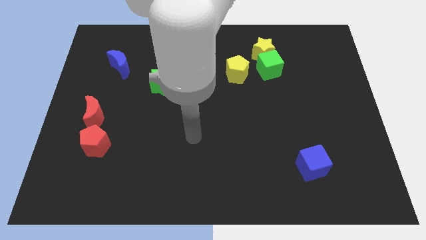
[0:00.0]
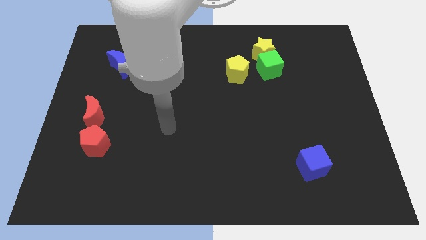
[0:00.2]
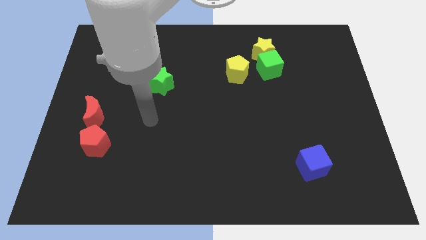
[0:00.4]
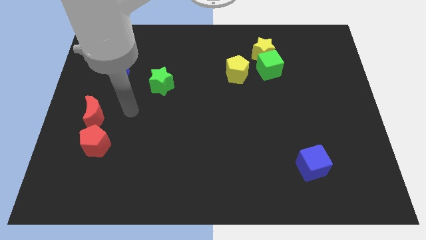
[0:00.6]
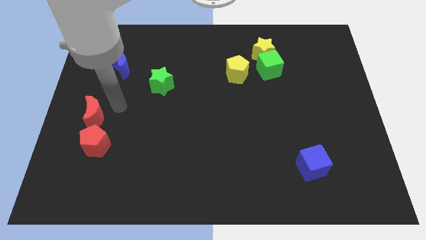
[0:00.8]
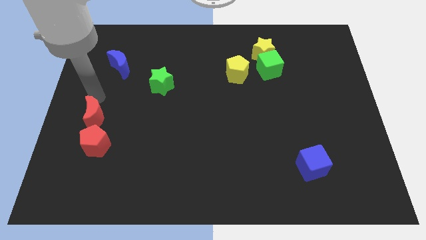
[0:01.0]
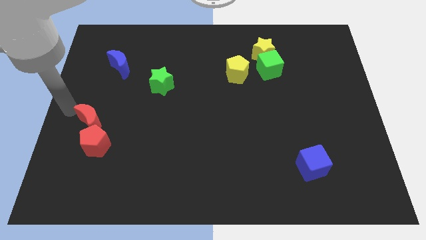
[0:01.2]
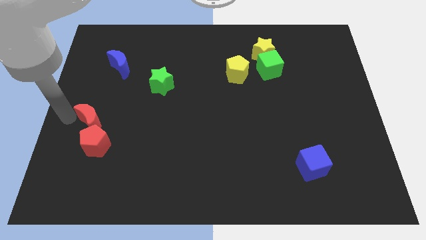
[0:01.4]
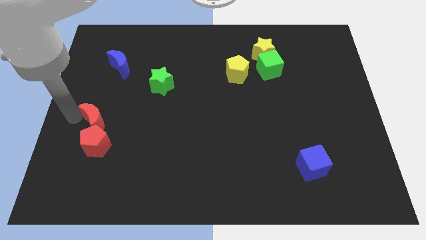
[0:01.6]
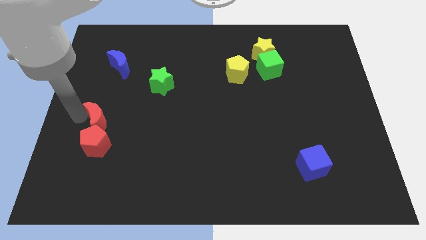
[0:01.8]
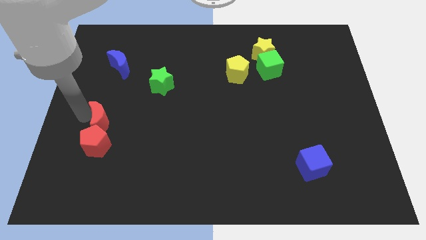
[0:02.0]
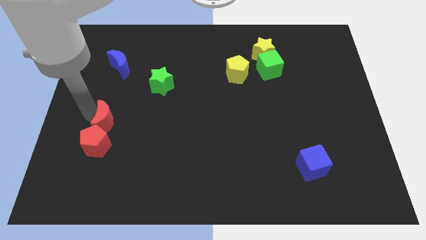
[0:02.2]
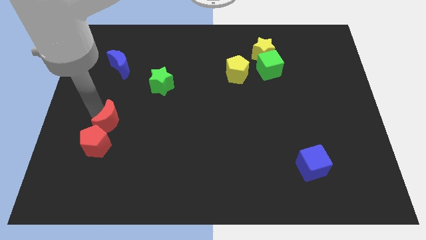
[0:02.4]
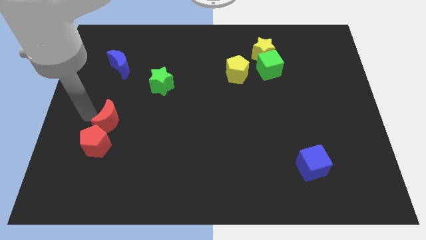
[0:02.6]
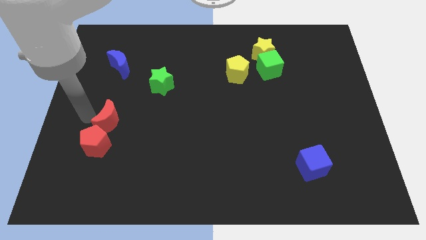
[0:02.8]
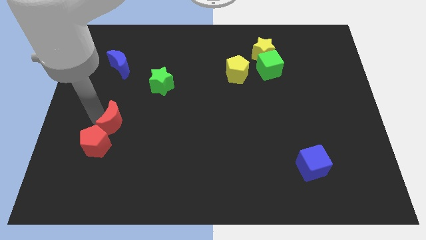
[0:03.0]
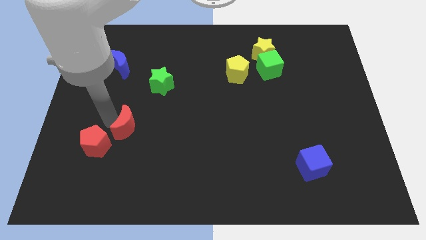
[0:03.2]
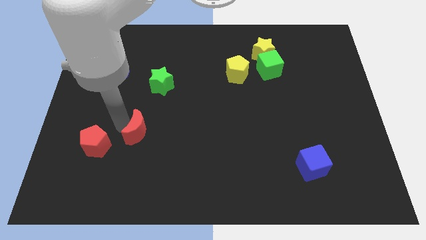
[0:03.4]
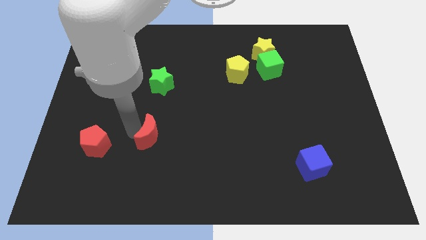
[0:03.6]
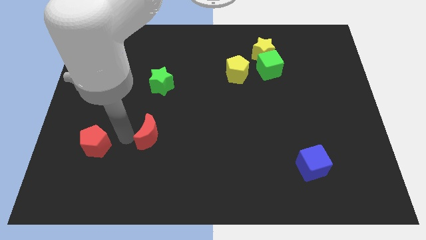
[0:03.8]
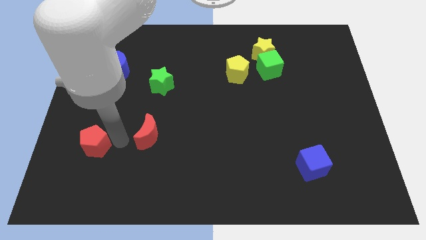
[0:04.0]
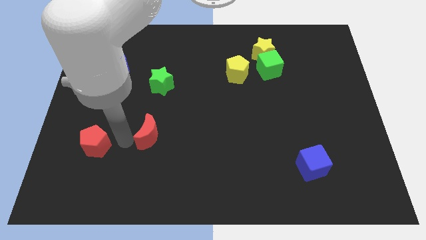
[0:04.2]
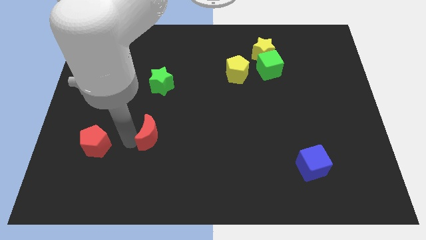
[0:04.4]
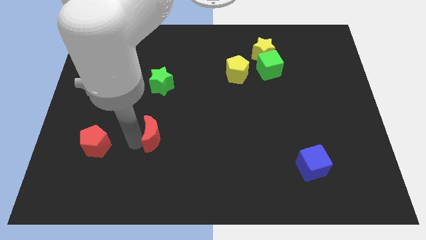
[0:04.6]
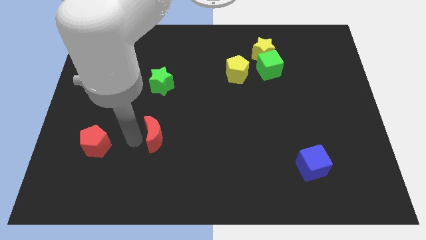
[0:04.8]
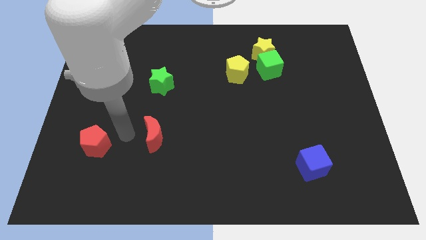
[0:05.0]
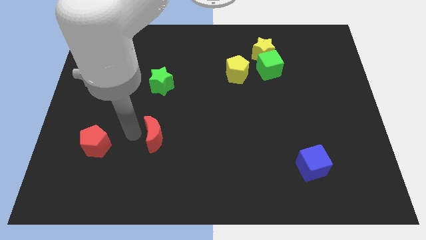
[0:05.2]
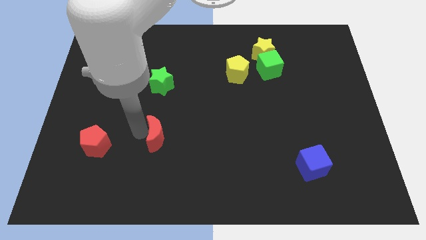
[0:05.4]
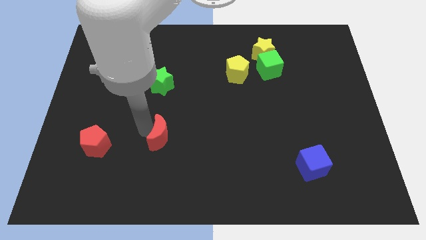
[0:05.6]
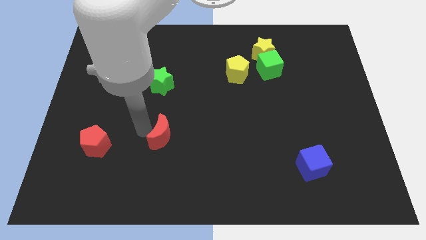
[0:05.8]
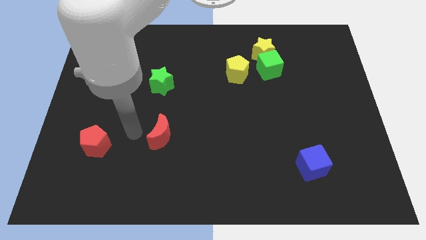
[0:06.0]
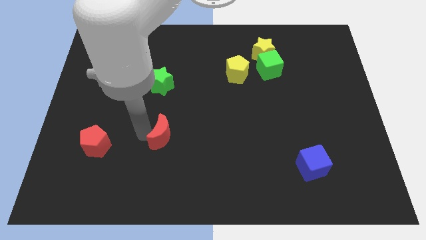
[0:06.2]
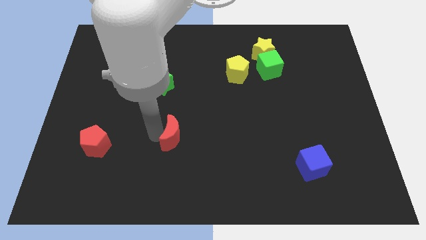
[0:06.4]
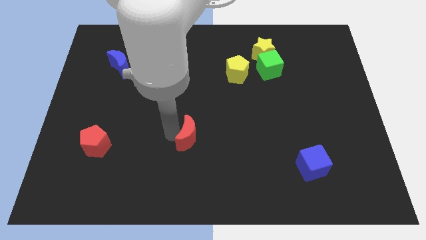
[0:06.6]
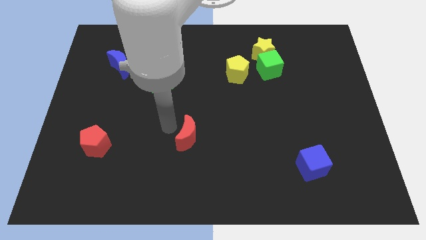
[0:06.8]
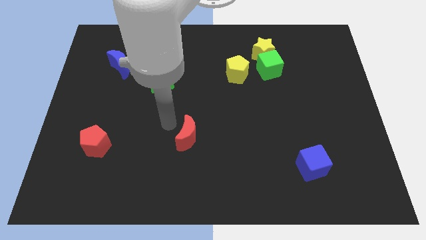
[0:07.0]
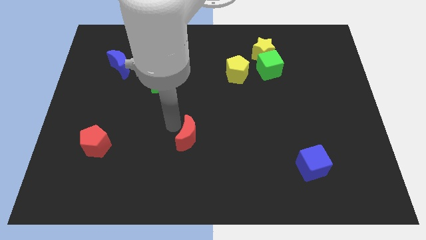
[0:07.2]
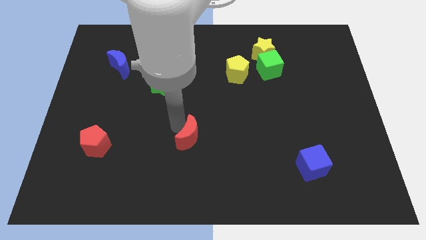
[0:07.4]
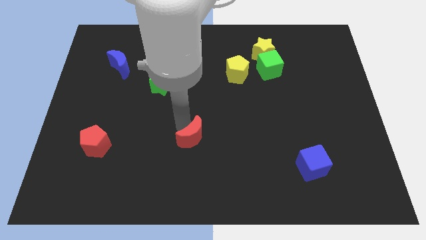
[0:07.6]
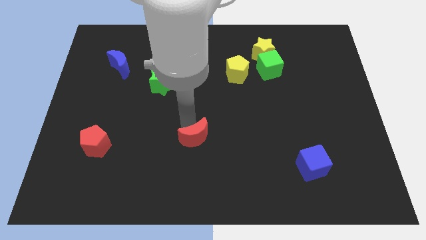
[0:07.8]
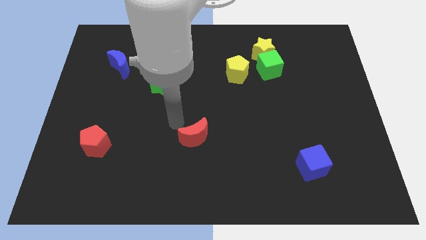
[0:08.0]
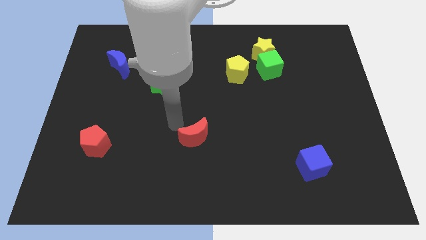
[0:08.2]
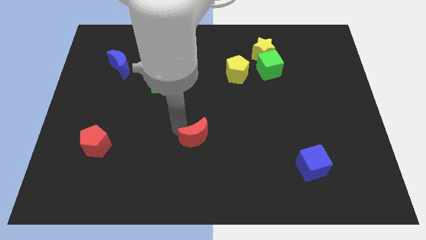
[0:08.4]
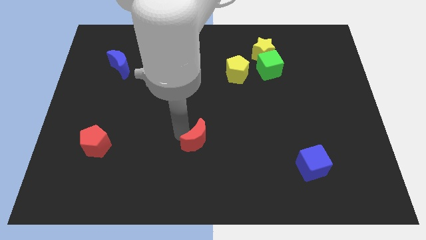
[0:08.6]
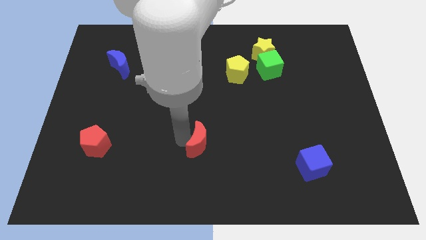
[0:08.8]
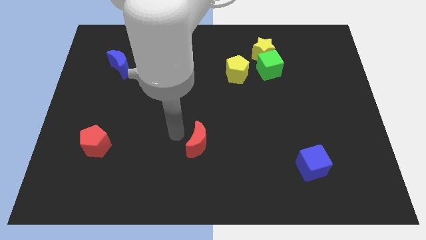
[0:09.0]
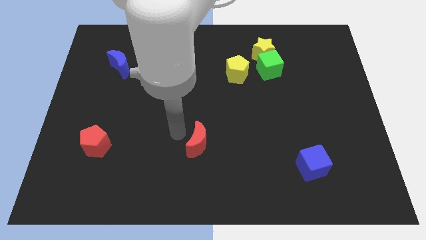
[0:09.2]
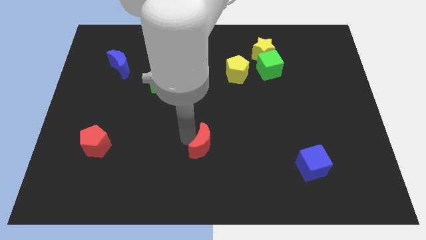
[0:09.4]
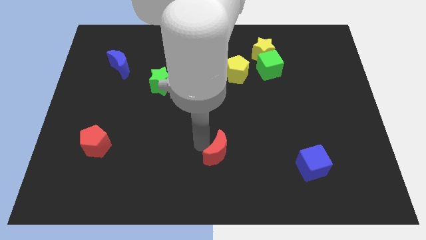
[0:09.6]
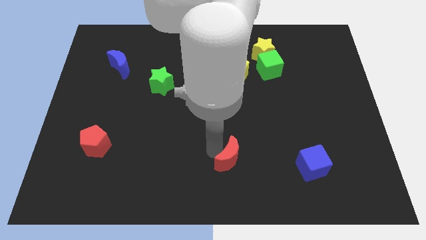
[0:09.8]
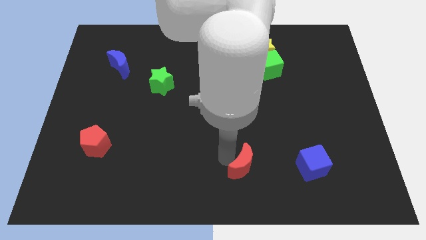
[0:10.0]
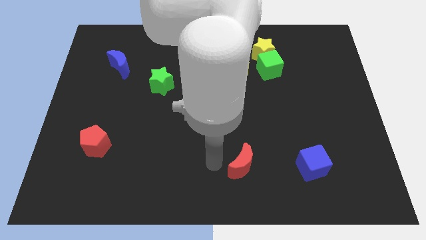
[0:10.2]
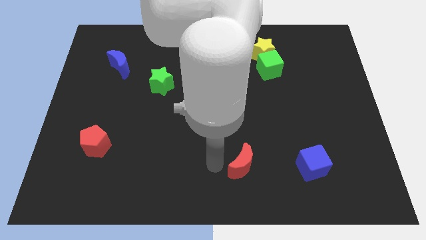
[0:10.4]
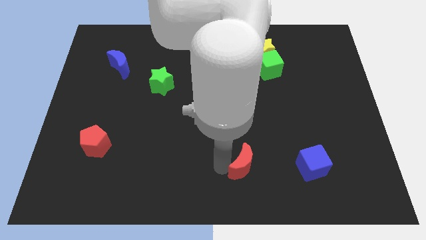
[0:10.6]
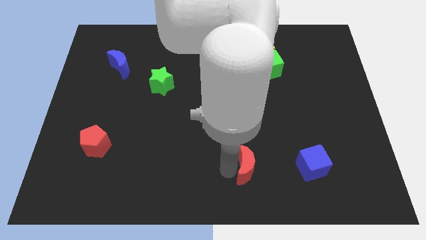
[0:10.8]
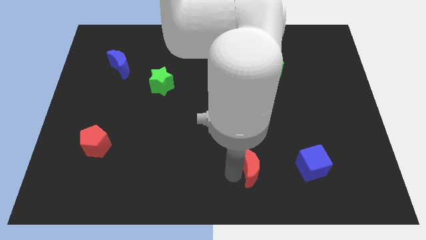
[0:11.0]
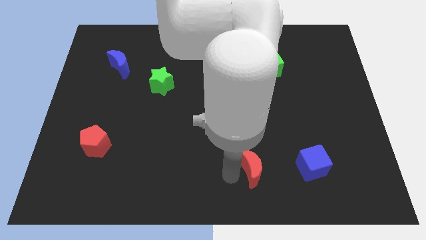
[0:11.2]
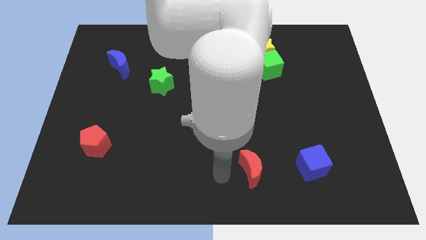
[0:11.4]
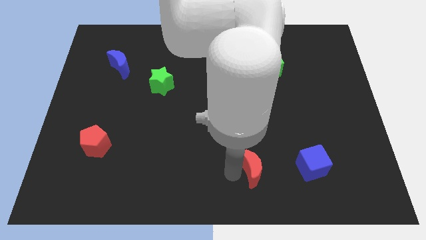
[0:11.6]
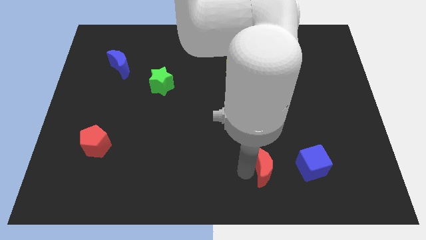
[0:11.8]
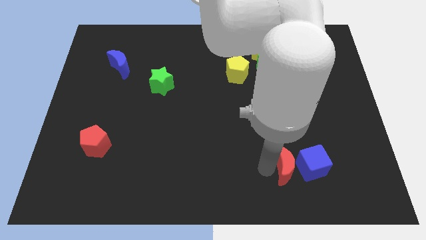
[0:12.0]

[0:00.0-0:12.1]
slide the red moon close to the blue cube

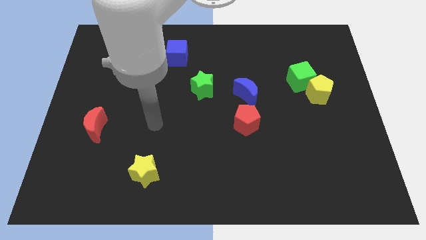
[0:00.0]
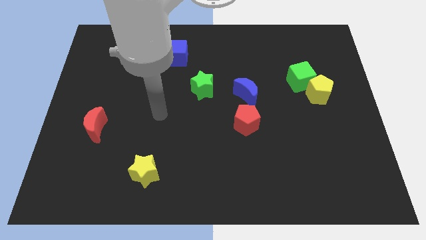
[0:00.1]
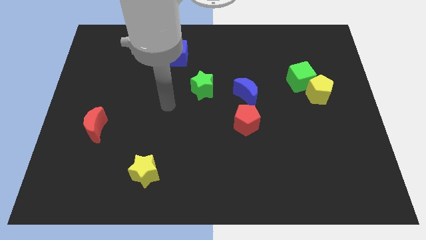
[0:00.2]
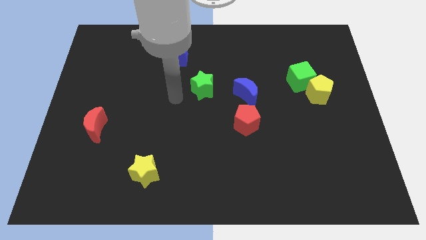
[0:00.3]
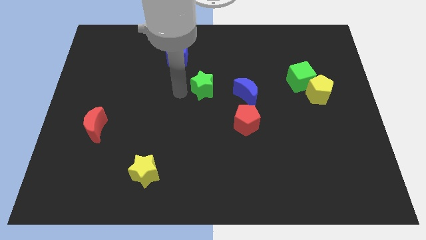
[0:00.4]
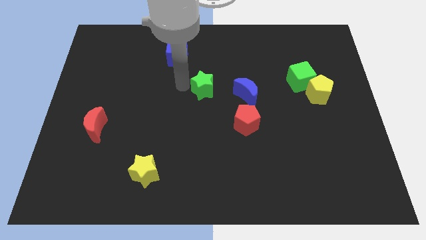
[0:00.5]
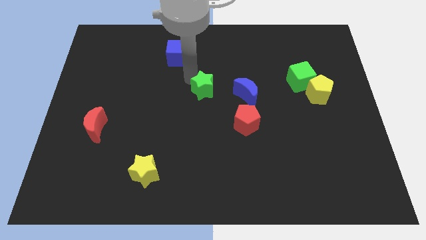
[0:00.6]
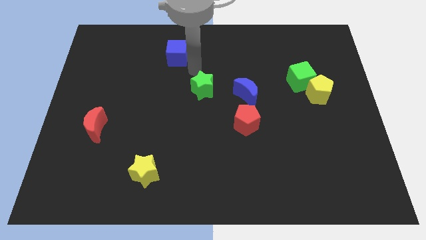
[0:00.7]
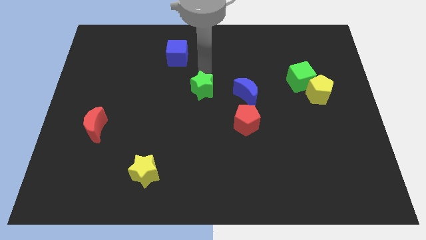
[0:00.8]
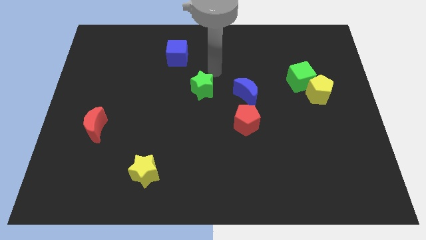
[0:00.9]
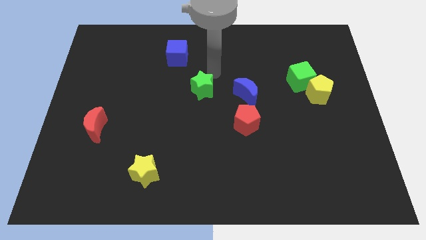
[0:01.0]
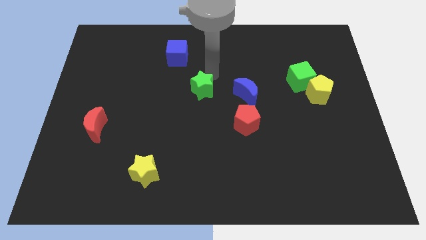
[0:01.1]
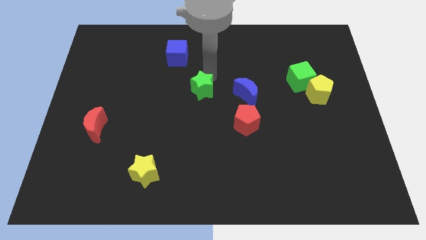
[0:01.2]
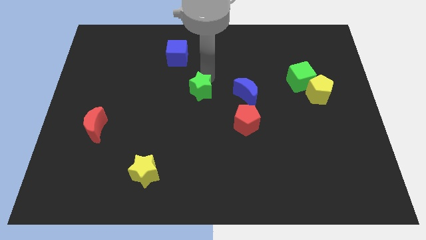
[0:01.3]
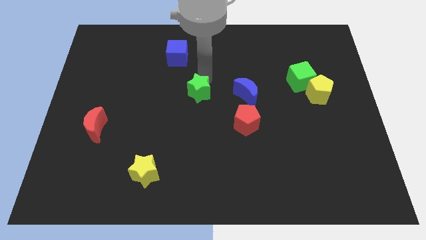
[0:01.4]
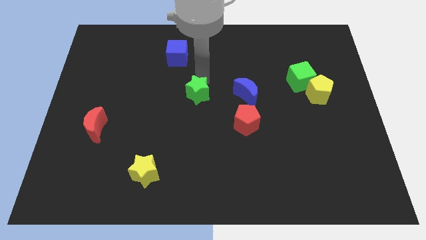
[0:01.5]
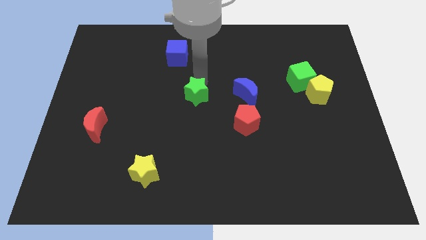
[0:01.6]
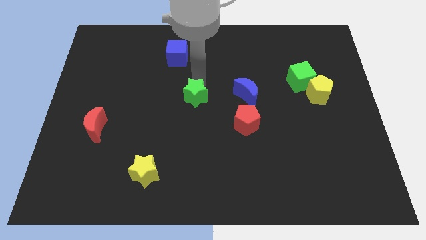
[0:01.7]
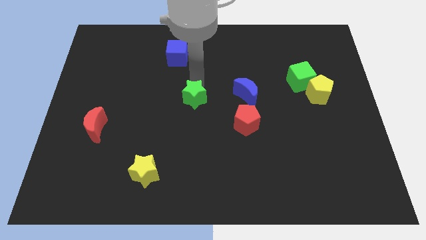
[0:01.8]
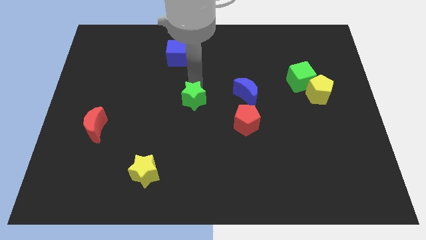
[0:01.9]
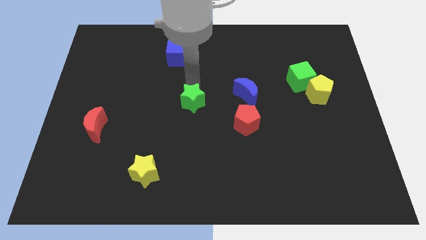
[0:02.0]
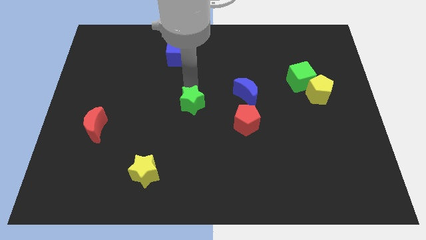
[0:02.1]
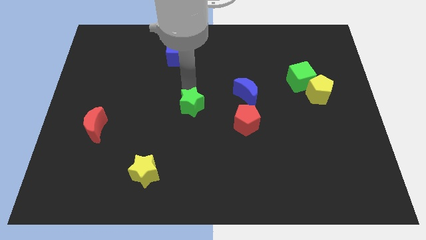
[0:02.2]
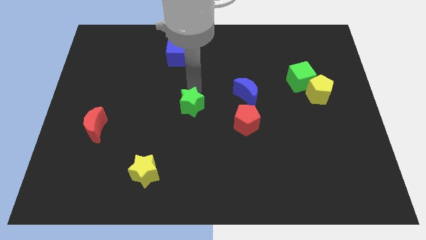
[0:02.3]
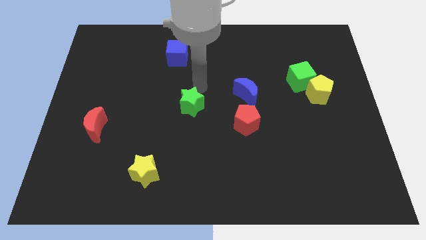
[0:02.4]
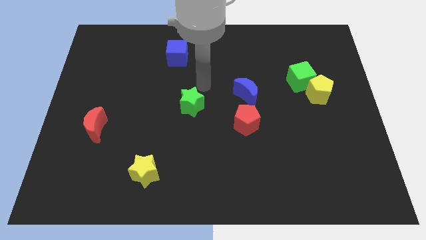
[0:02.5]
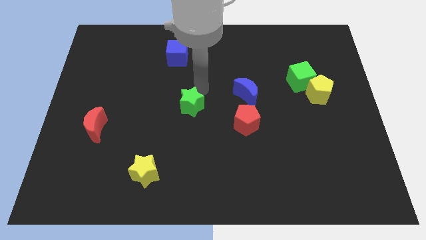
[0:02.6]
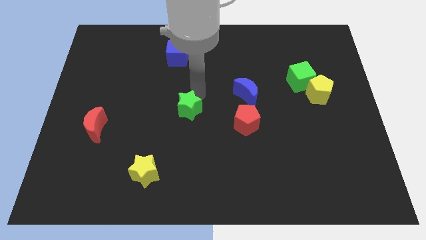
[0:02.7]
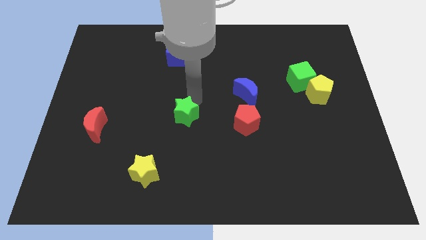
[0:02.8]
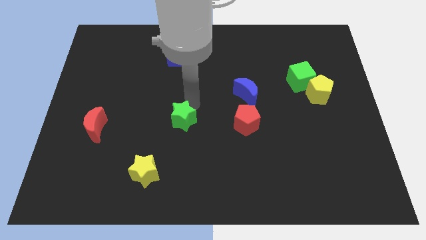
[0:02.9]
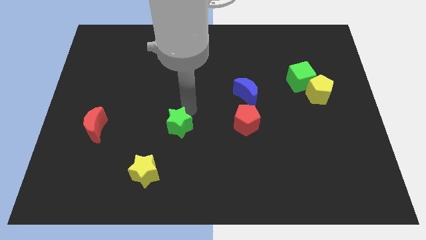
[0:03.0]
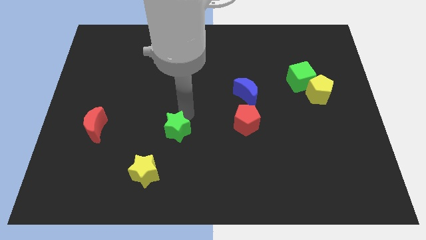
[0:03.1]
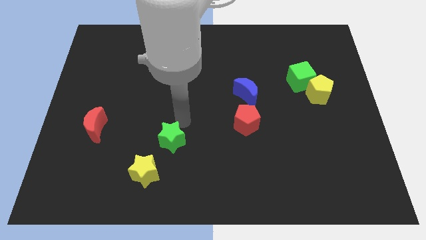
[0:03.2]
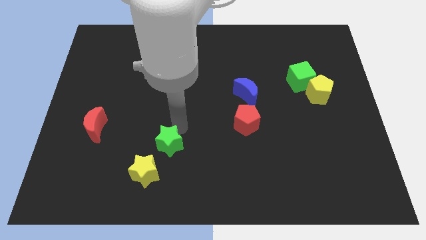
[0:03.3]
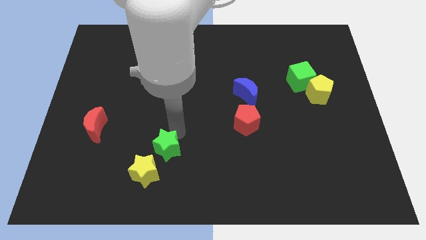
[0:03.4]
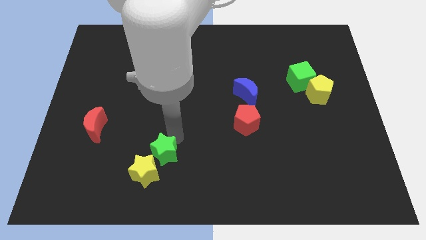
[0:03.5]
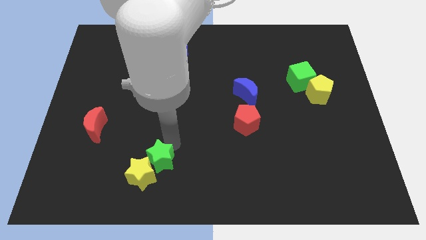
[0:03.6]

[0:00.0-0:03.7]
slide the green star towards the yellow star
